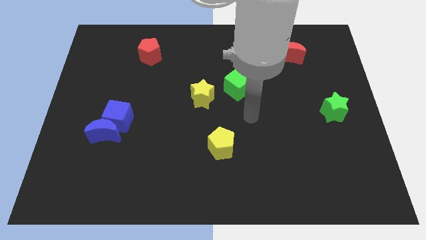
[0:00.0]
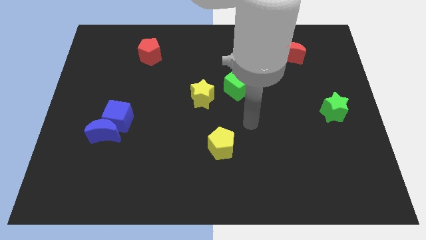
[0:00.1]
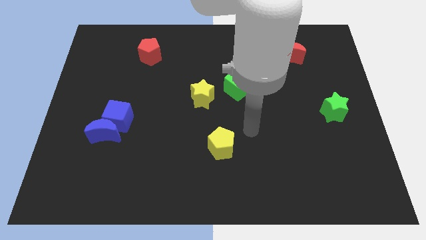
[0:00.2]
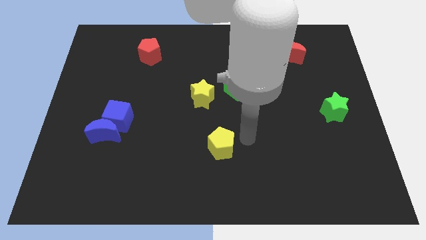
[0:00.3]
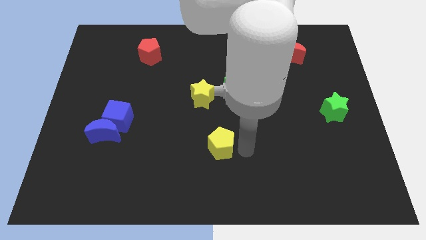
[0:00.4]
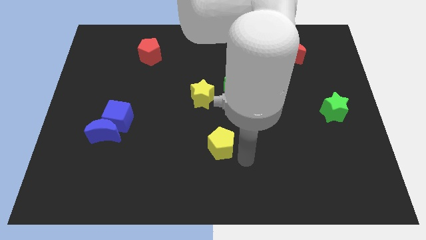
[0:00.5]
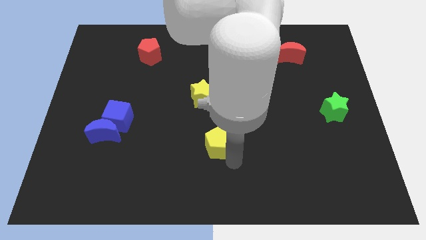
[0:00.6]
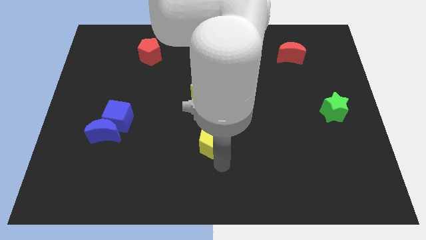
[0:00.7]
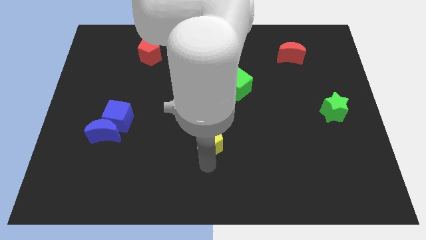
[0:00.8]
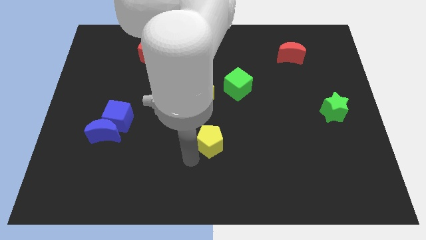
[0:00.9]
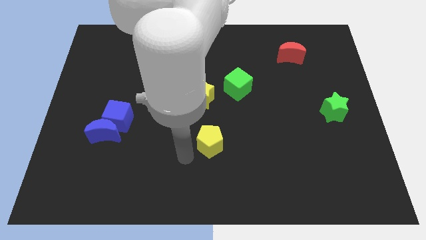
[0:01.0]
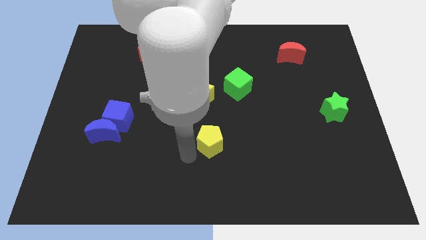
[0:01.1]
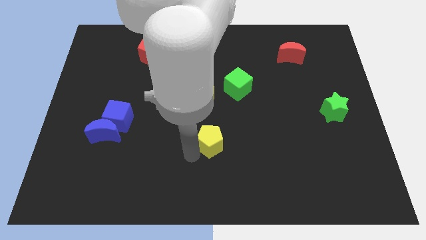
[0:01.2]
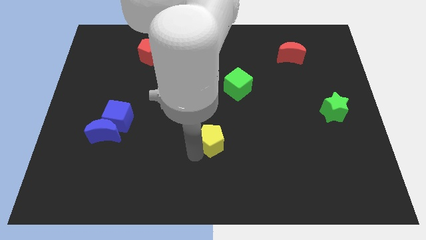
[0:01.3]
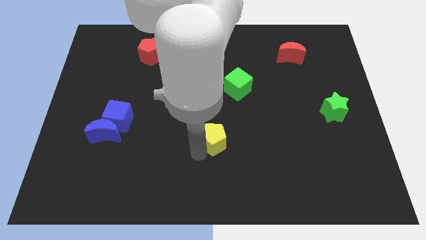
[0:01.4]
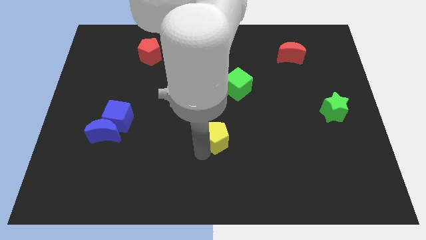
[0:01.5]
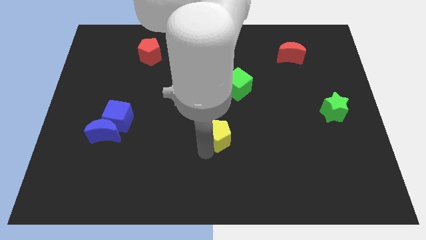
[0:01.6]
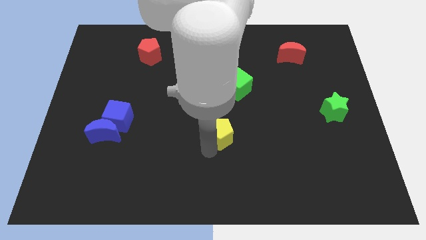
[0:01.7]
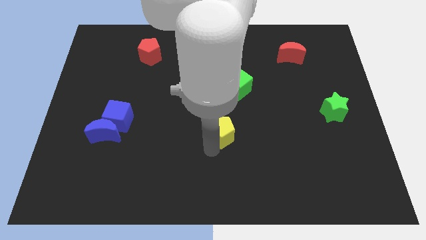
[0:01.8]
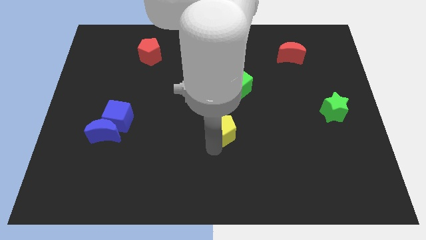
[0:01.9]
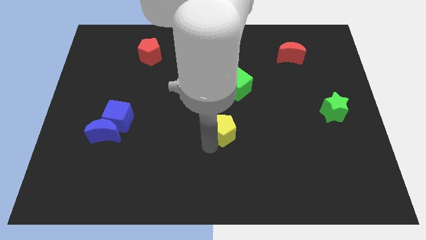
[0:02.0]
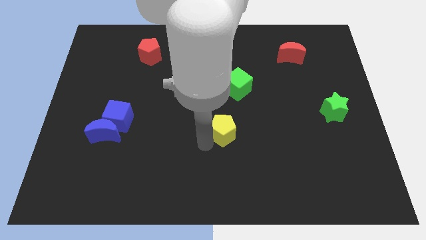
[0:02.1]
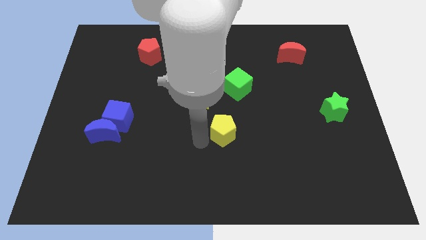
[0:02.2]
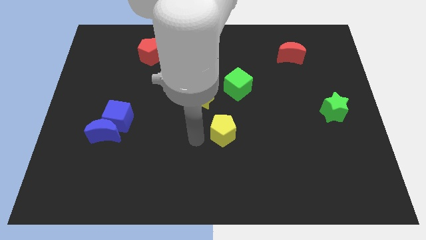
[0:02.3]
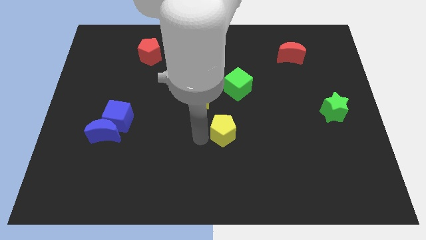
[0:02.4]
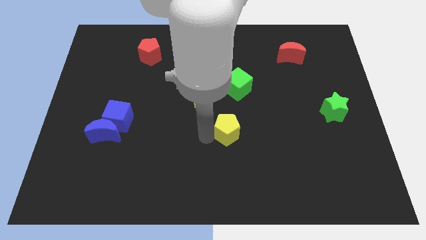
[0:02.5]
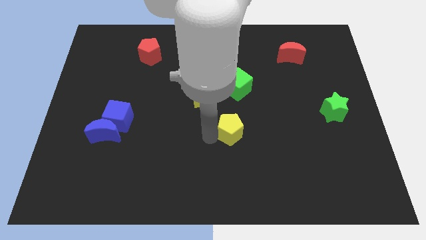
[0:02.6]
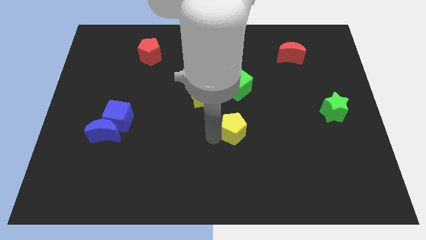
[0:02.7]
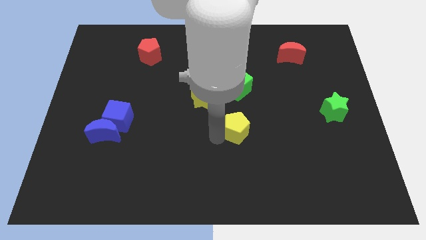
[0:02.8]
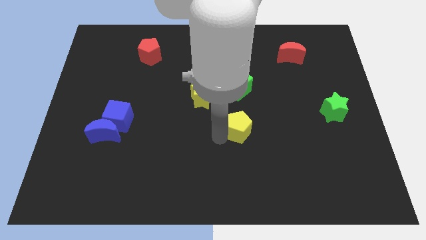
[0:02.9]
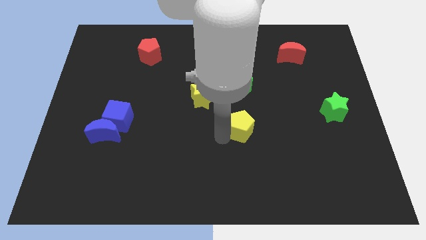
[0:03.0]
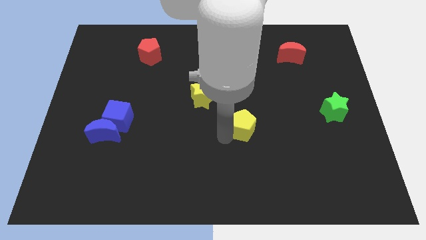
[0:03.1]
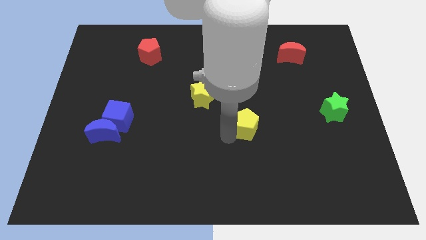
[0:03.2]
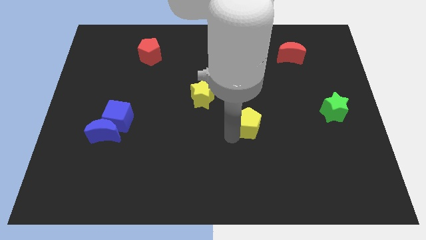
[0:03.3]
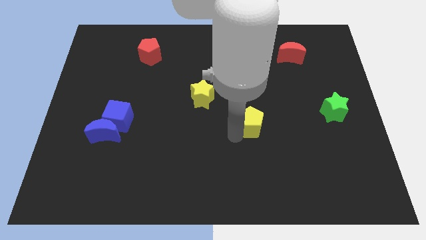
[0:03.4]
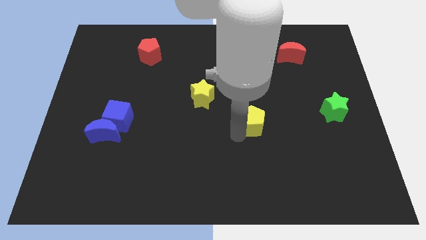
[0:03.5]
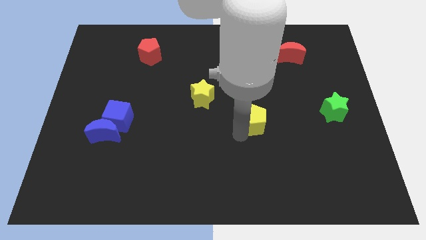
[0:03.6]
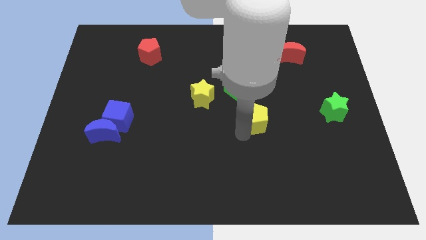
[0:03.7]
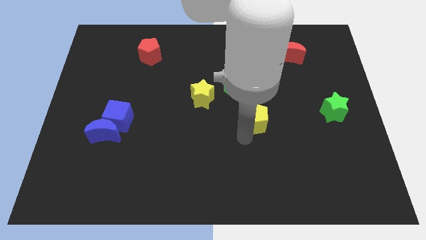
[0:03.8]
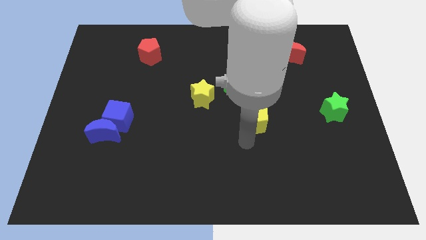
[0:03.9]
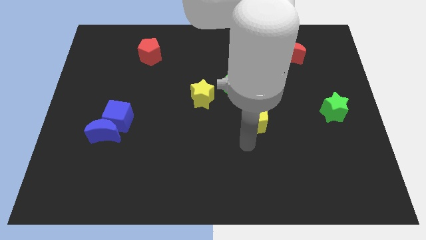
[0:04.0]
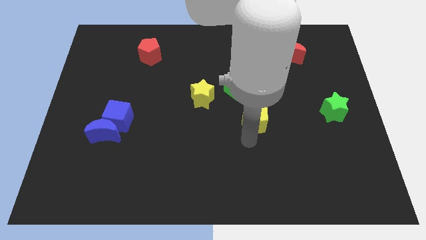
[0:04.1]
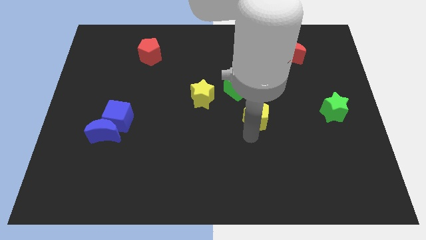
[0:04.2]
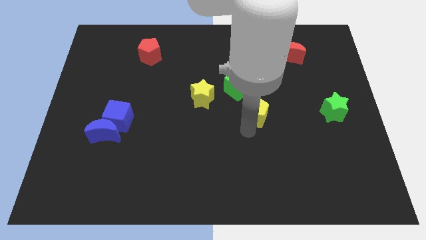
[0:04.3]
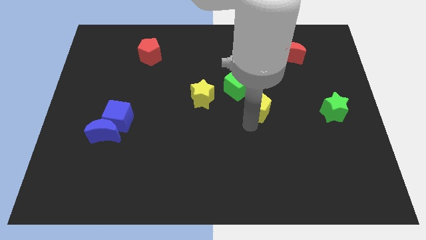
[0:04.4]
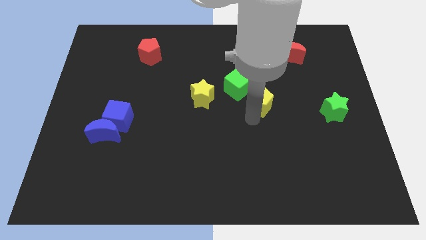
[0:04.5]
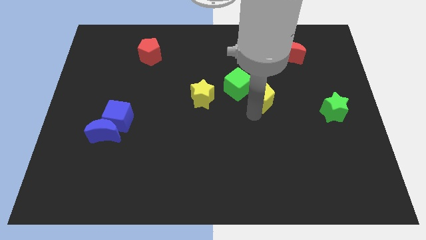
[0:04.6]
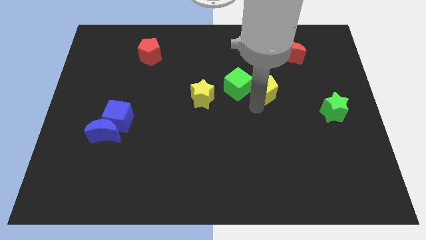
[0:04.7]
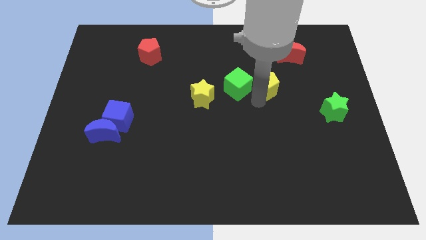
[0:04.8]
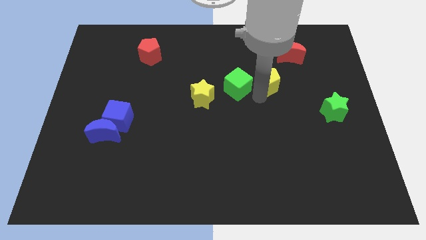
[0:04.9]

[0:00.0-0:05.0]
push the yellow pentagon upwards and to the right diagonally

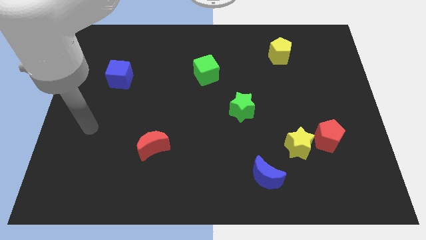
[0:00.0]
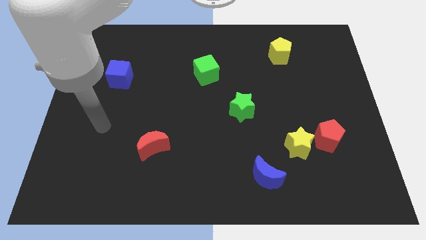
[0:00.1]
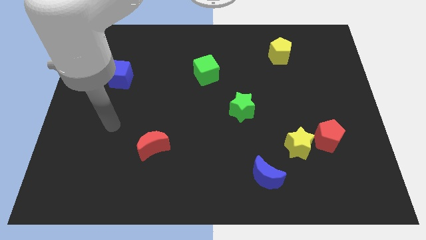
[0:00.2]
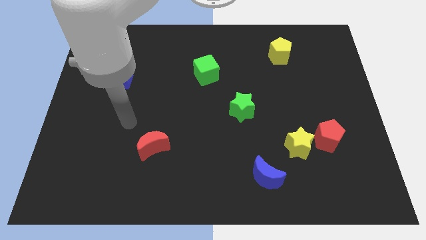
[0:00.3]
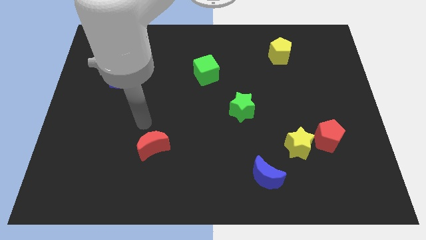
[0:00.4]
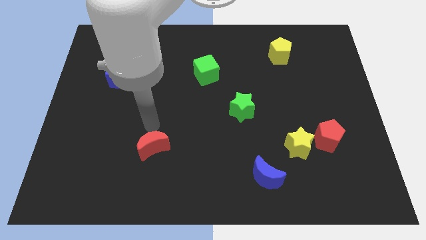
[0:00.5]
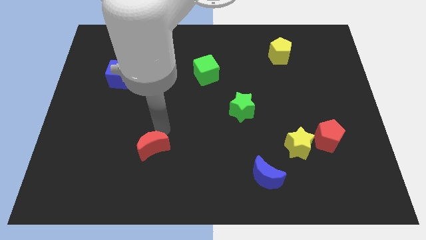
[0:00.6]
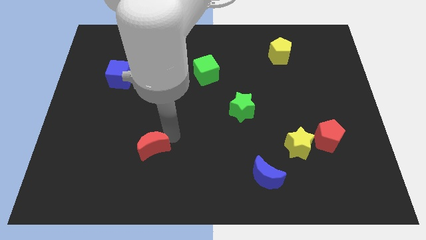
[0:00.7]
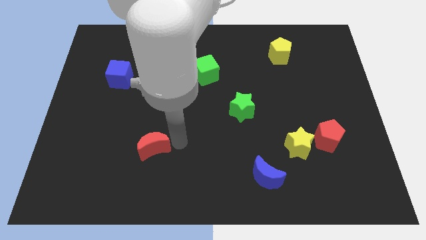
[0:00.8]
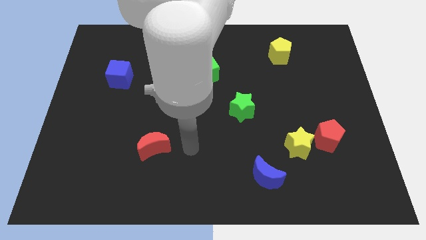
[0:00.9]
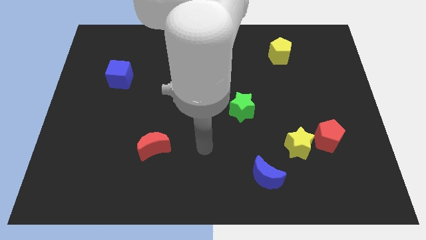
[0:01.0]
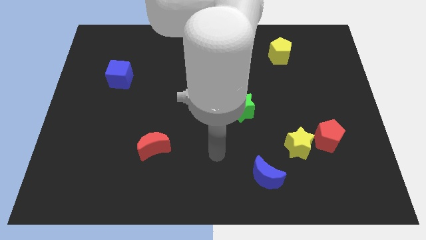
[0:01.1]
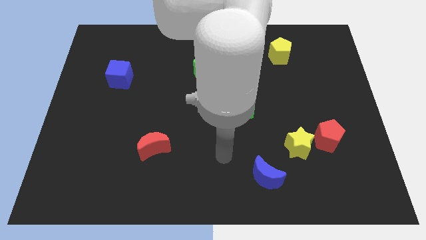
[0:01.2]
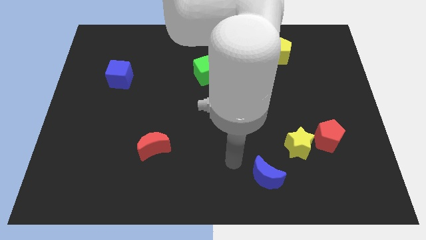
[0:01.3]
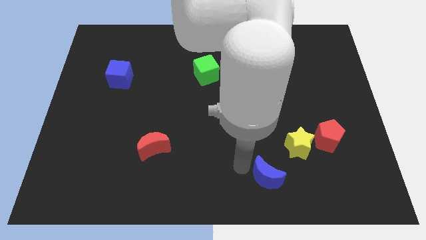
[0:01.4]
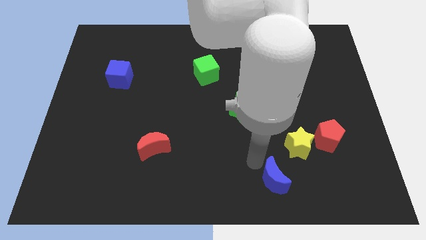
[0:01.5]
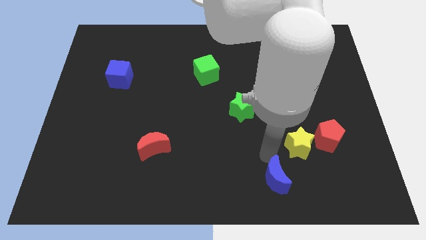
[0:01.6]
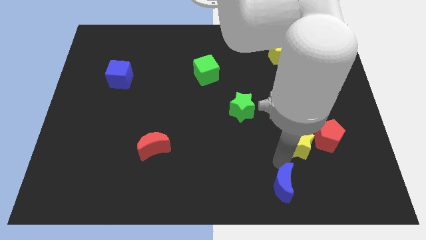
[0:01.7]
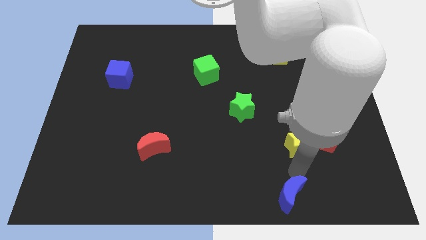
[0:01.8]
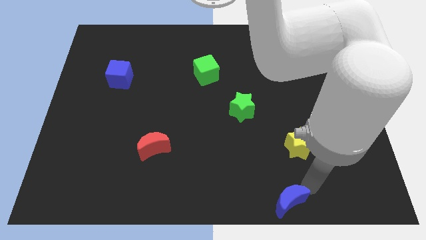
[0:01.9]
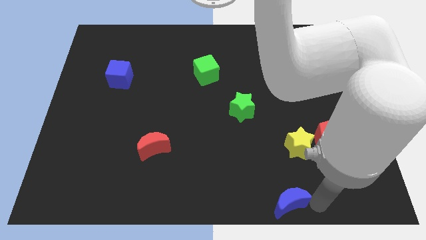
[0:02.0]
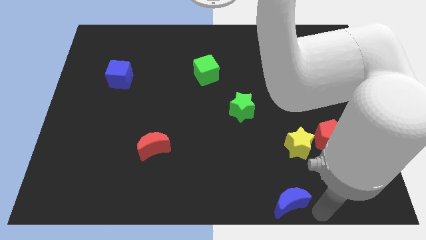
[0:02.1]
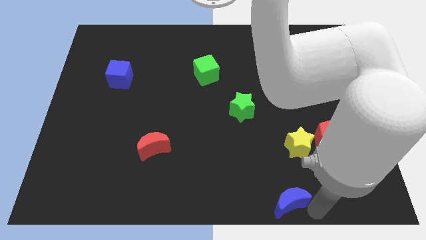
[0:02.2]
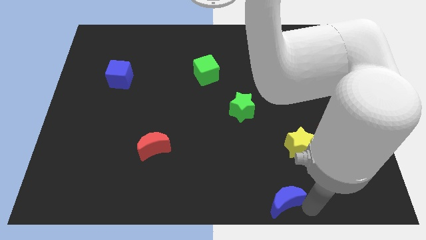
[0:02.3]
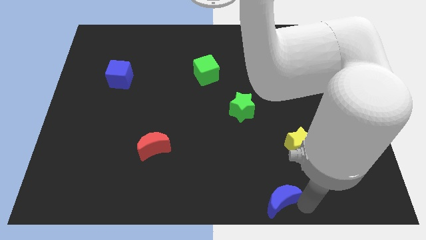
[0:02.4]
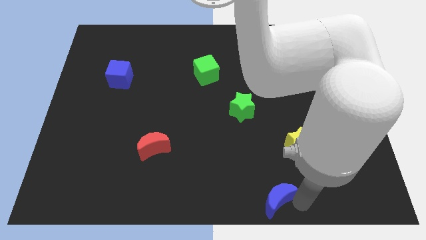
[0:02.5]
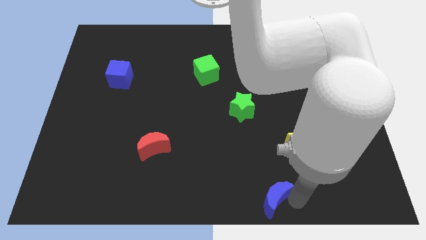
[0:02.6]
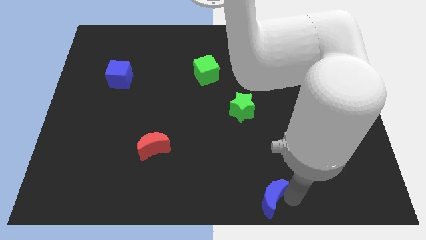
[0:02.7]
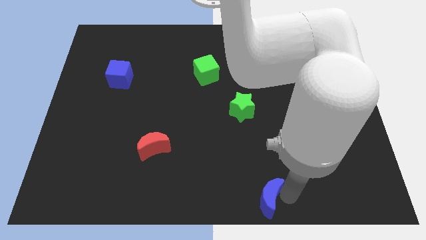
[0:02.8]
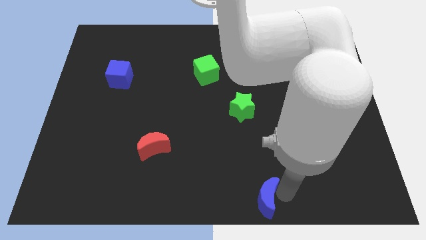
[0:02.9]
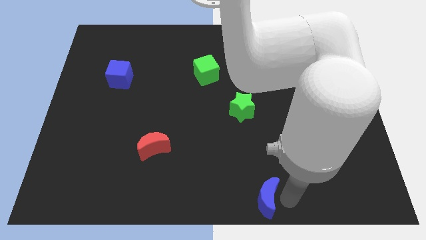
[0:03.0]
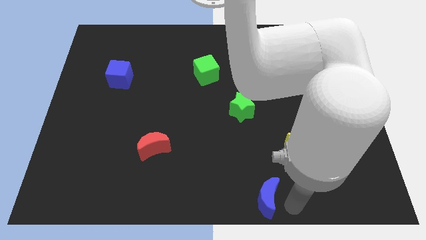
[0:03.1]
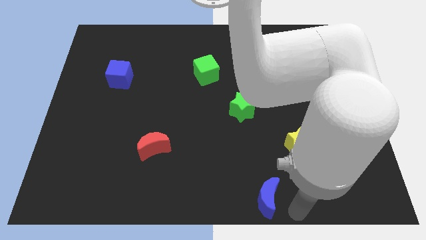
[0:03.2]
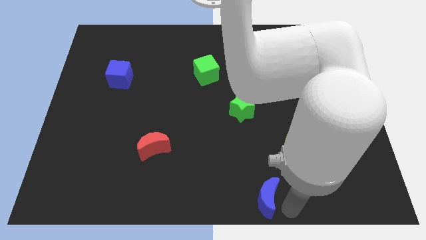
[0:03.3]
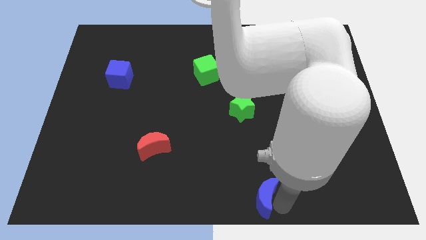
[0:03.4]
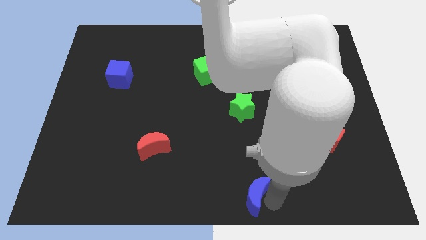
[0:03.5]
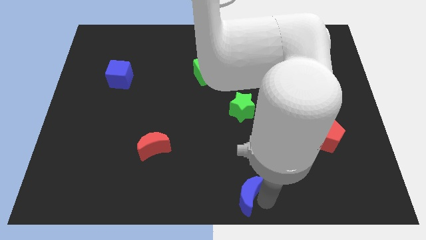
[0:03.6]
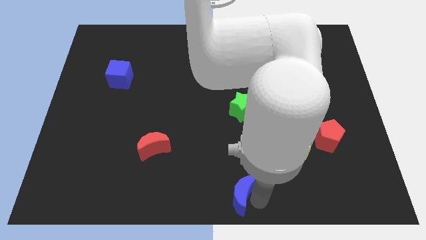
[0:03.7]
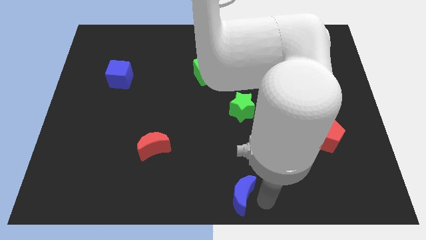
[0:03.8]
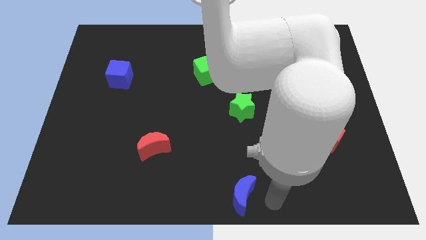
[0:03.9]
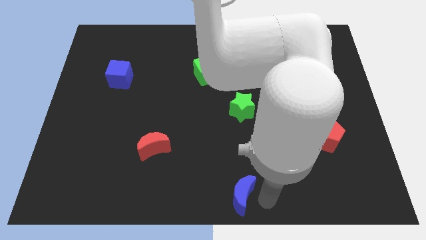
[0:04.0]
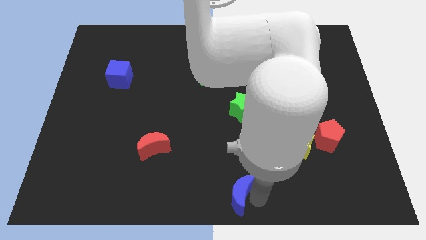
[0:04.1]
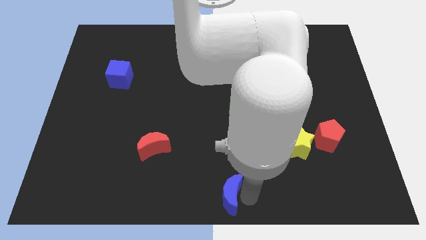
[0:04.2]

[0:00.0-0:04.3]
push the blue moon a bit left
